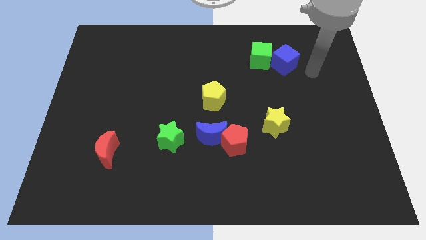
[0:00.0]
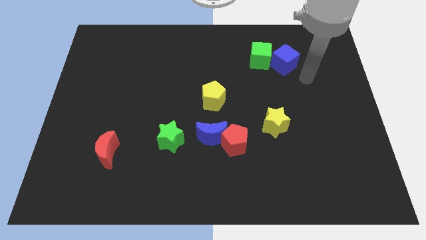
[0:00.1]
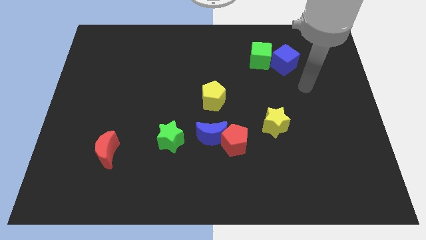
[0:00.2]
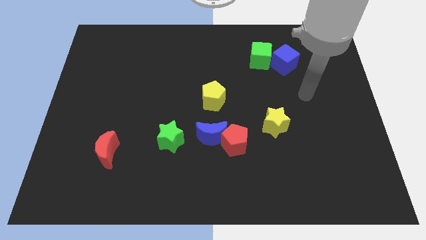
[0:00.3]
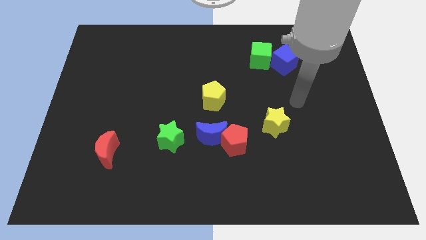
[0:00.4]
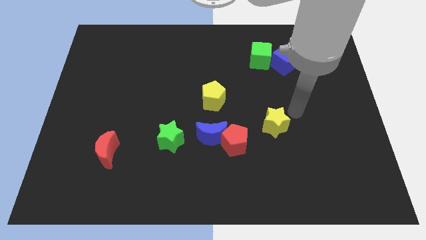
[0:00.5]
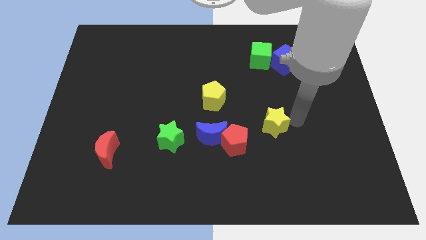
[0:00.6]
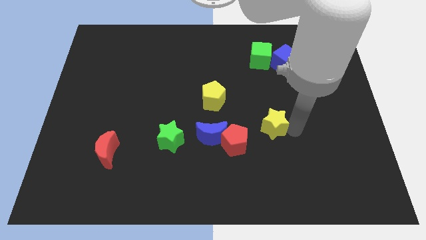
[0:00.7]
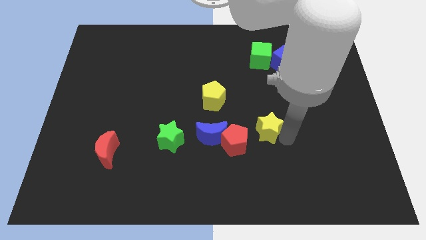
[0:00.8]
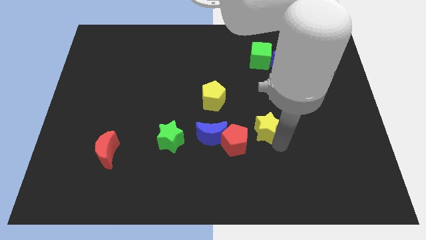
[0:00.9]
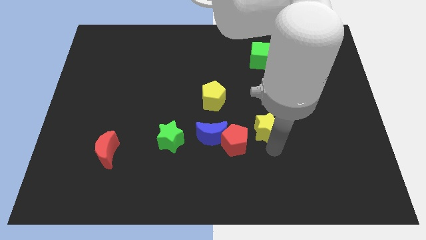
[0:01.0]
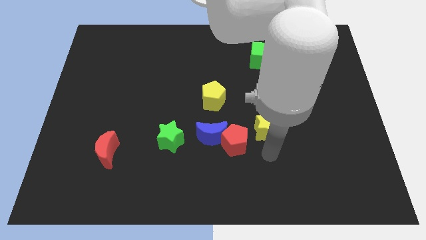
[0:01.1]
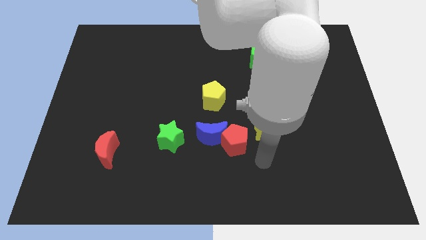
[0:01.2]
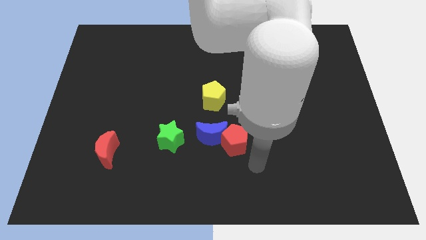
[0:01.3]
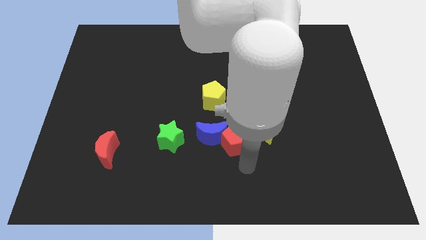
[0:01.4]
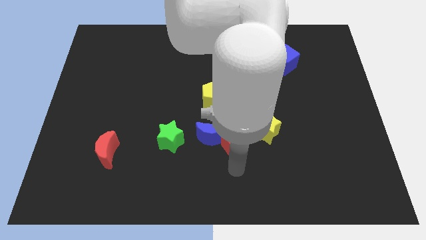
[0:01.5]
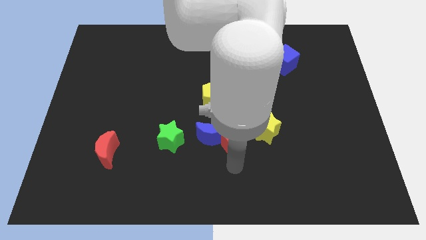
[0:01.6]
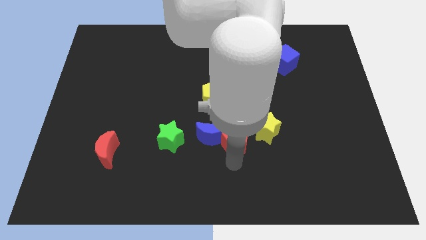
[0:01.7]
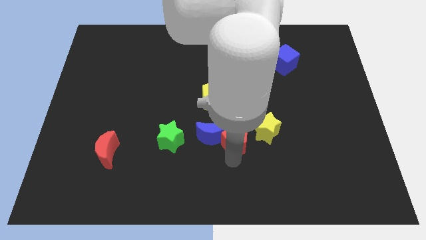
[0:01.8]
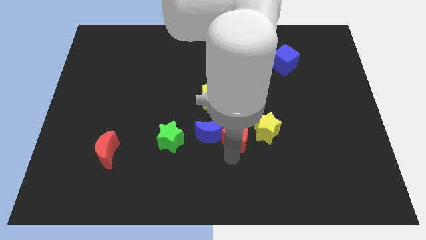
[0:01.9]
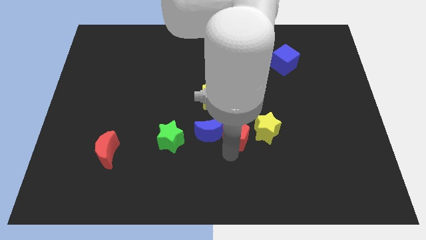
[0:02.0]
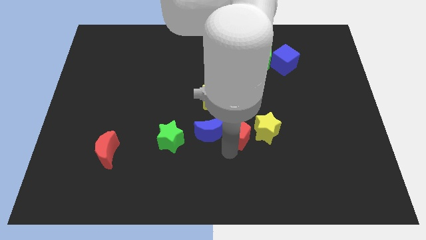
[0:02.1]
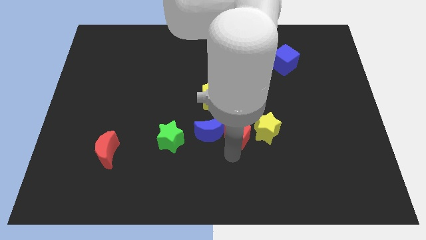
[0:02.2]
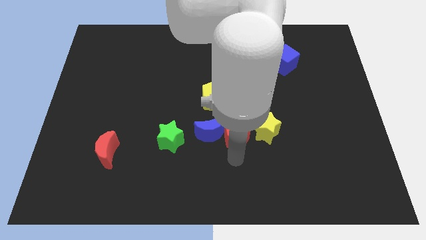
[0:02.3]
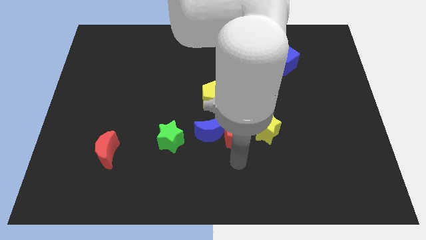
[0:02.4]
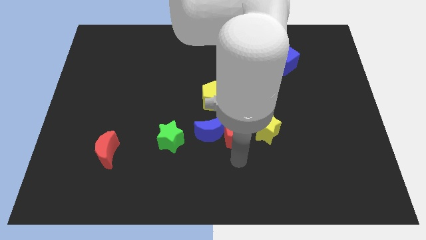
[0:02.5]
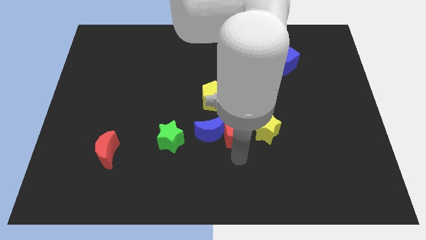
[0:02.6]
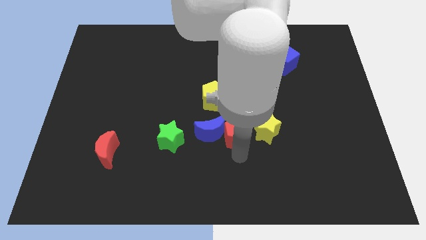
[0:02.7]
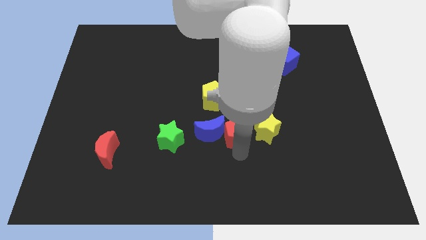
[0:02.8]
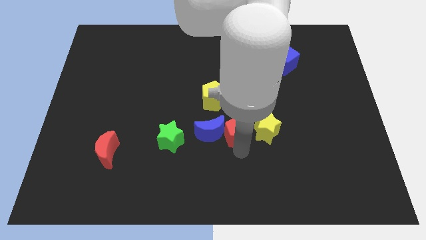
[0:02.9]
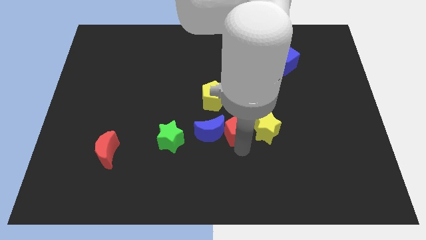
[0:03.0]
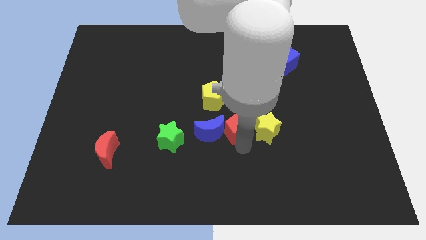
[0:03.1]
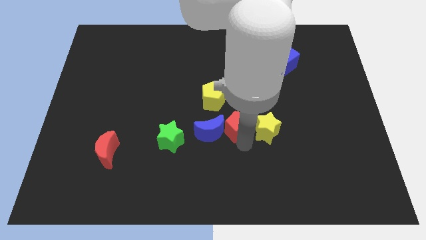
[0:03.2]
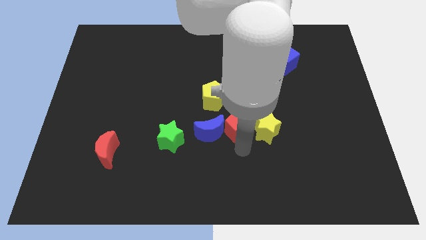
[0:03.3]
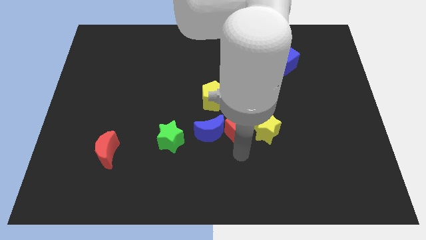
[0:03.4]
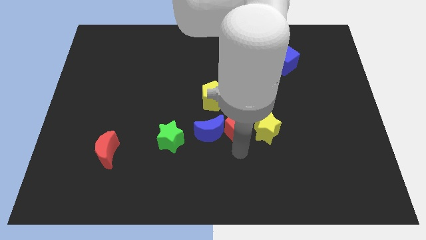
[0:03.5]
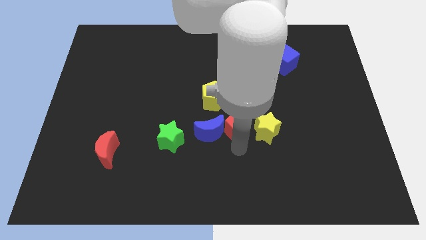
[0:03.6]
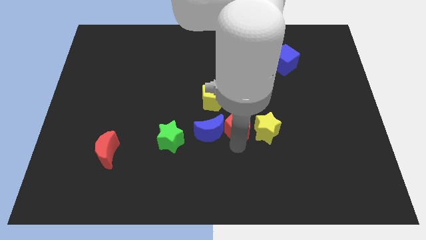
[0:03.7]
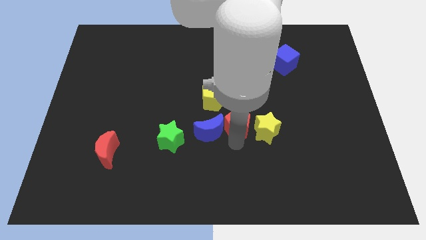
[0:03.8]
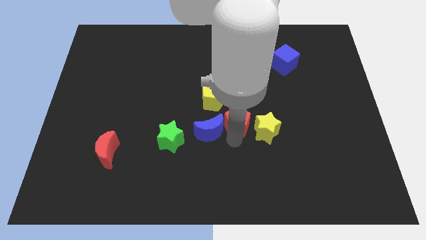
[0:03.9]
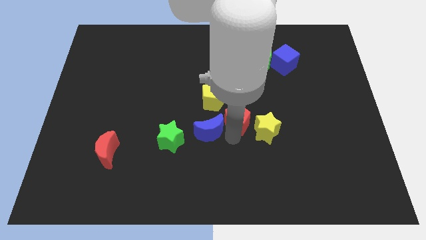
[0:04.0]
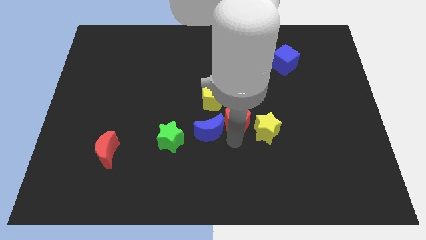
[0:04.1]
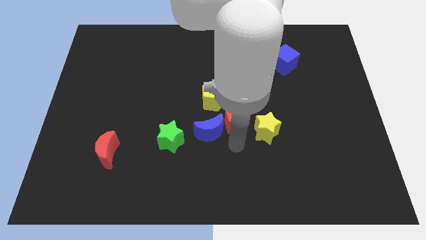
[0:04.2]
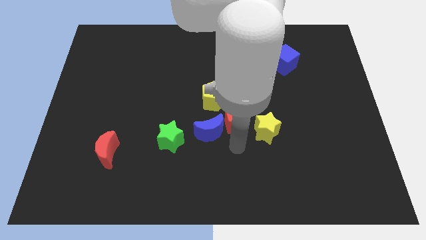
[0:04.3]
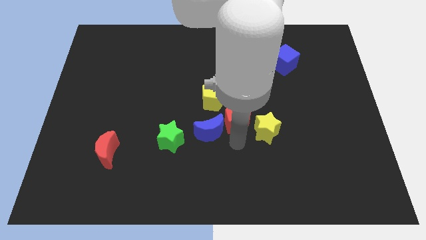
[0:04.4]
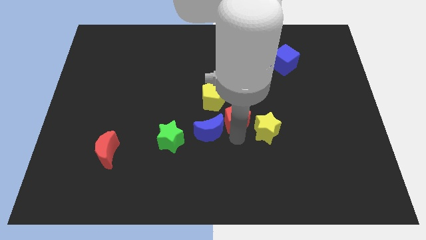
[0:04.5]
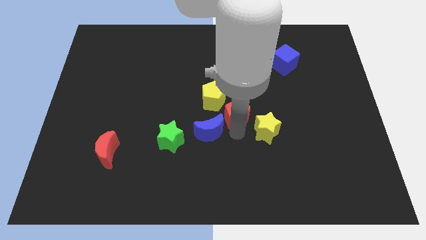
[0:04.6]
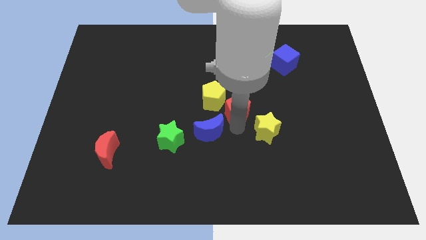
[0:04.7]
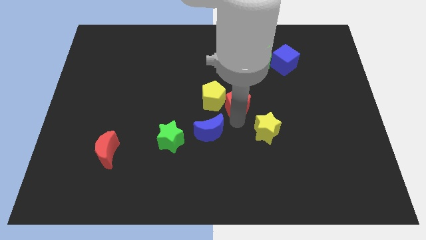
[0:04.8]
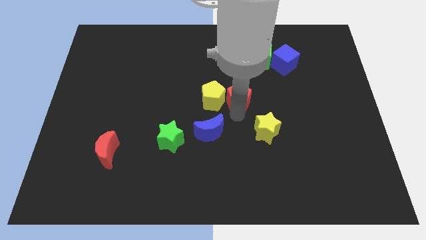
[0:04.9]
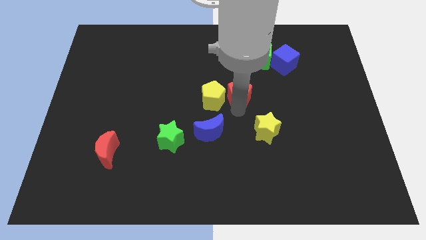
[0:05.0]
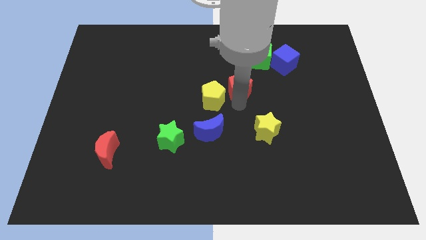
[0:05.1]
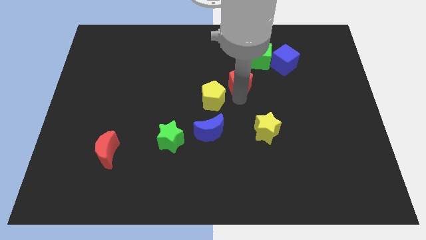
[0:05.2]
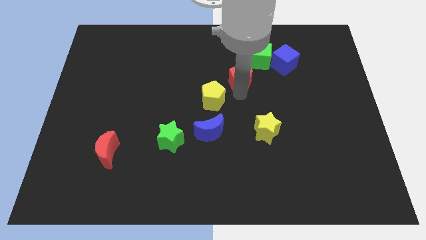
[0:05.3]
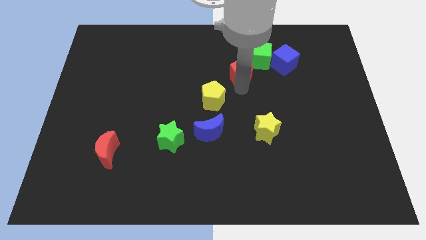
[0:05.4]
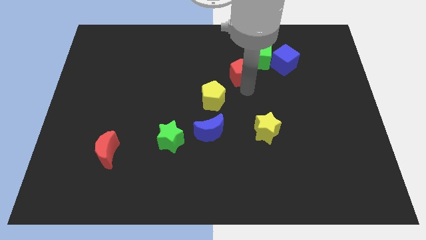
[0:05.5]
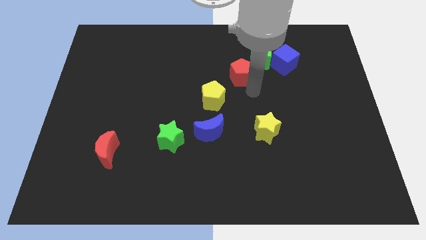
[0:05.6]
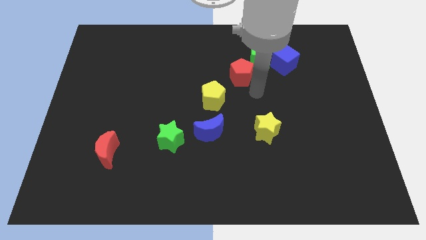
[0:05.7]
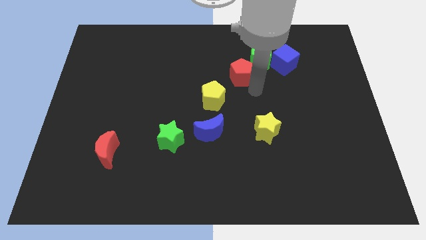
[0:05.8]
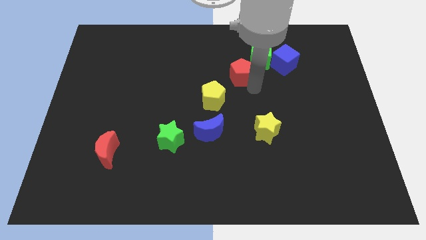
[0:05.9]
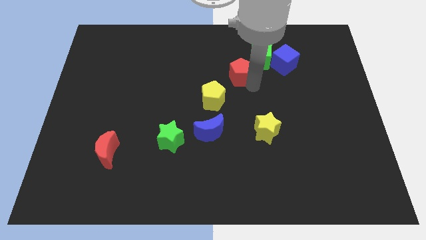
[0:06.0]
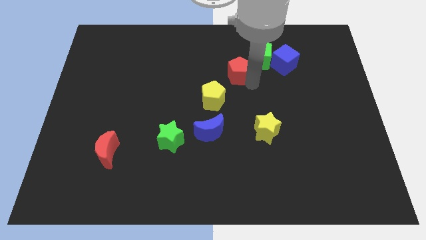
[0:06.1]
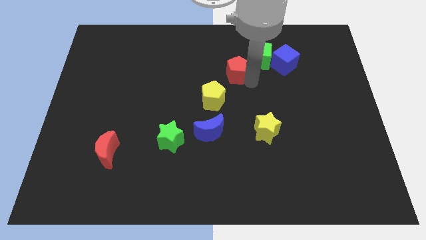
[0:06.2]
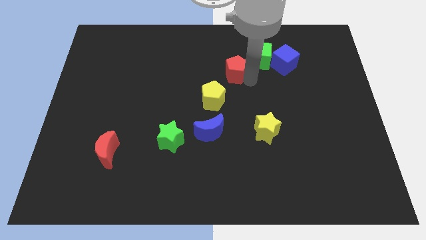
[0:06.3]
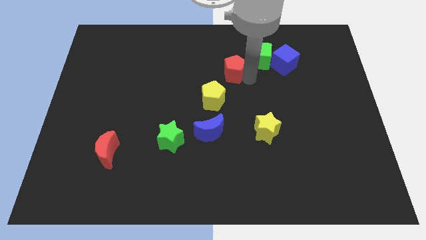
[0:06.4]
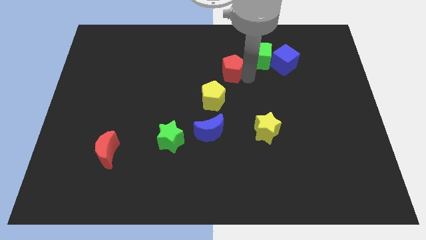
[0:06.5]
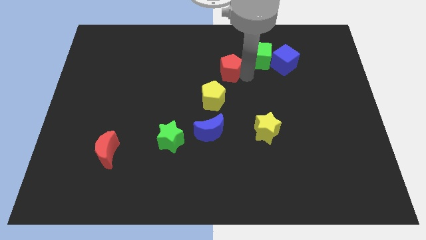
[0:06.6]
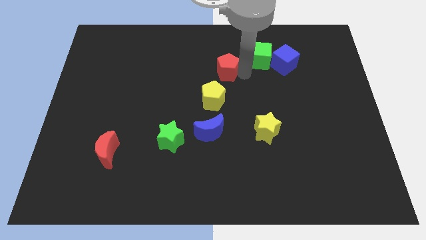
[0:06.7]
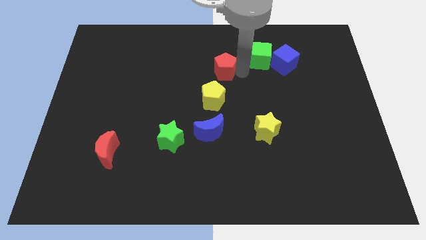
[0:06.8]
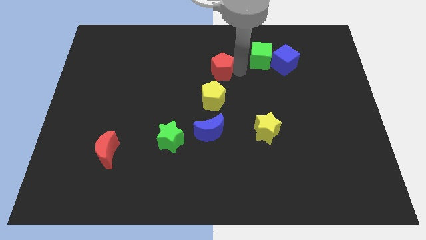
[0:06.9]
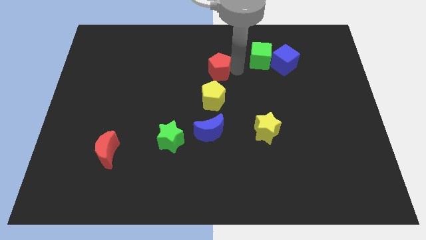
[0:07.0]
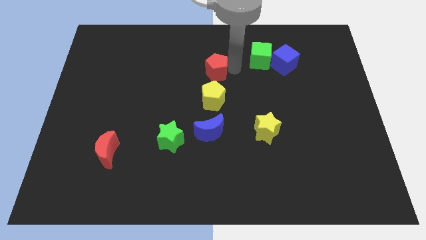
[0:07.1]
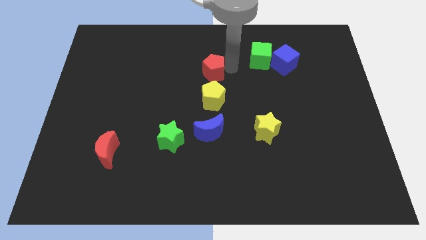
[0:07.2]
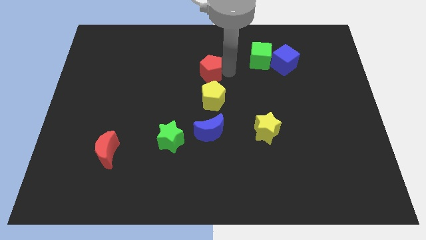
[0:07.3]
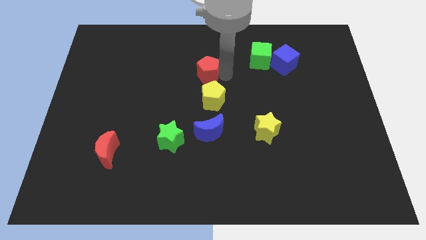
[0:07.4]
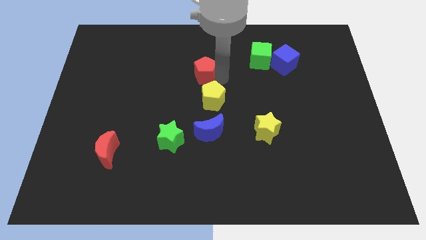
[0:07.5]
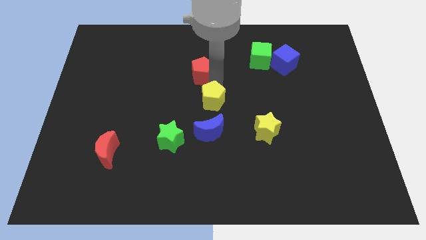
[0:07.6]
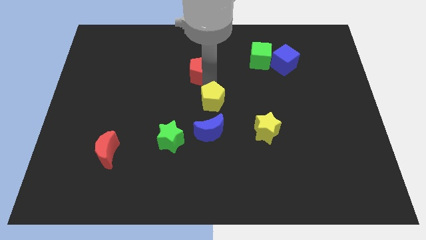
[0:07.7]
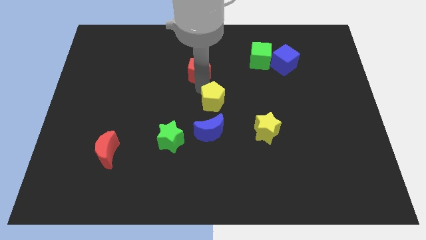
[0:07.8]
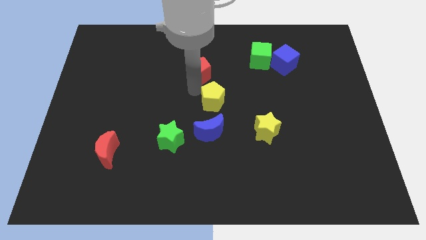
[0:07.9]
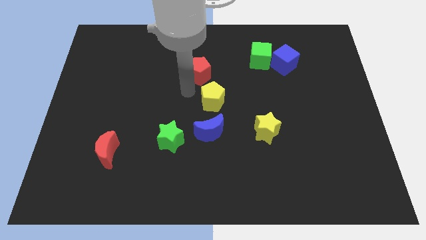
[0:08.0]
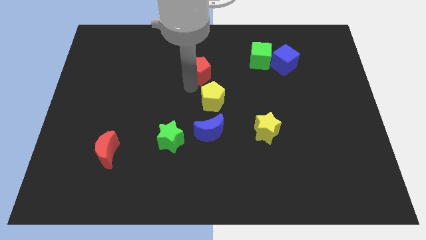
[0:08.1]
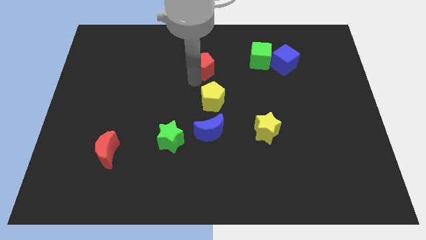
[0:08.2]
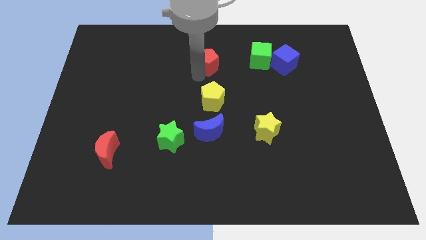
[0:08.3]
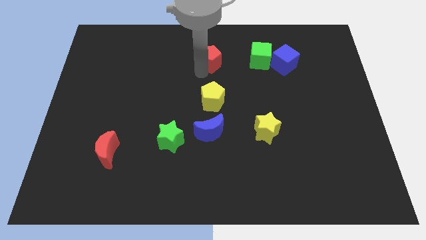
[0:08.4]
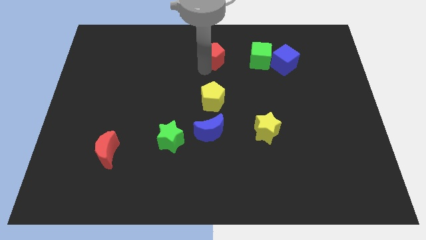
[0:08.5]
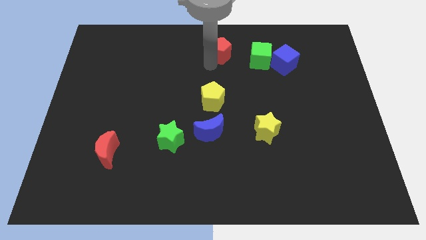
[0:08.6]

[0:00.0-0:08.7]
move the red pentagon to the top side
